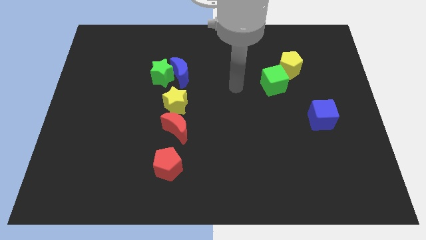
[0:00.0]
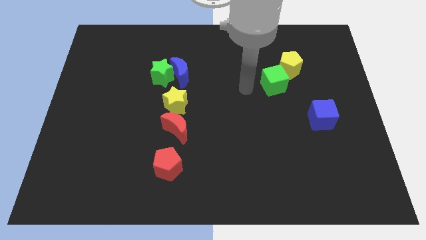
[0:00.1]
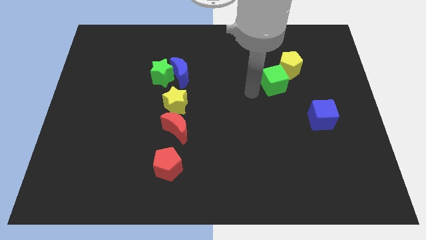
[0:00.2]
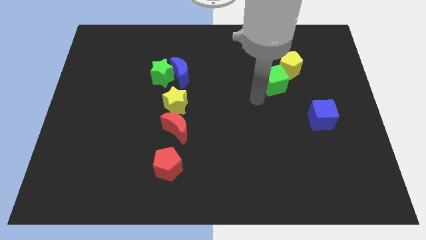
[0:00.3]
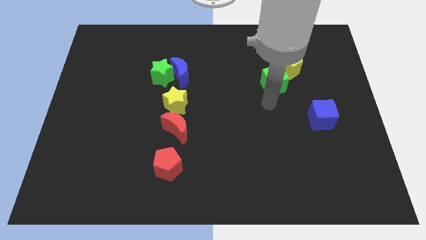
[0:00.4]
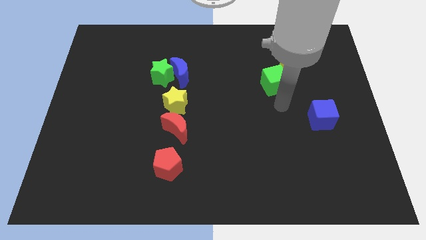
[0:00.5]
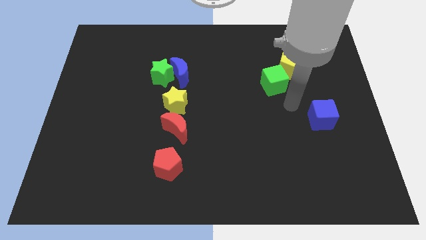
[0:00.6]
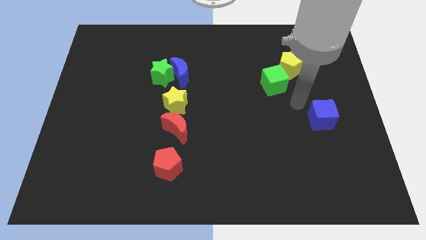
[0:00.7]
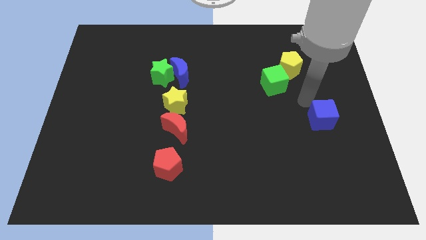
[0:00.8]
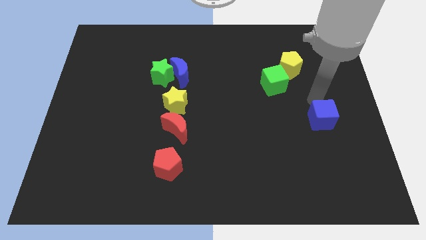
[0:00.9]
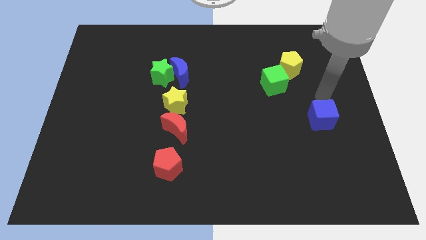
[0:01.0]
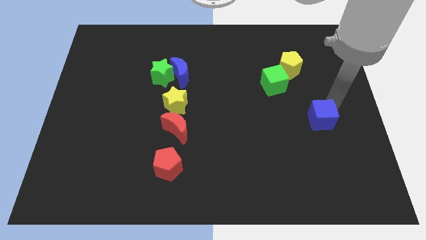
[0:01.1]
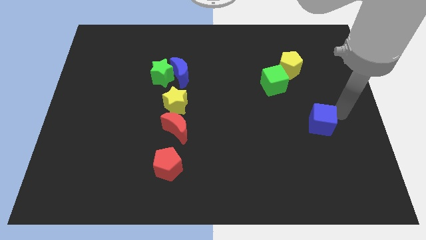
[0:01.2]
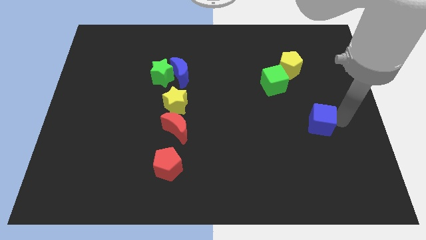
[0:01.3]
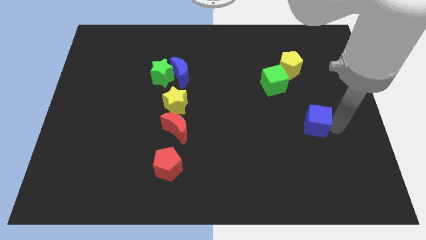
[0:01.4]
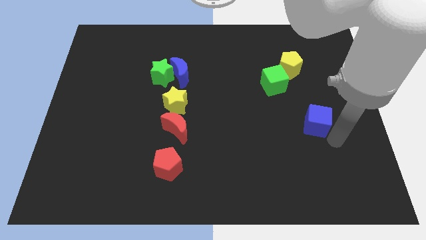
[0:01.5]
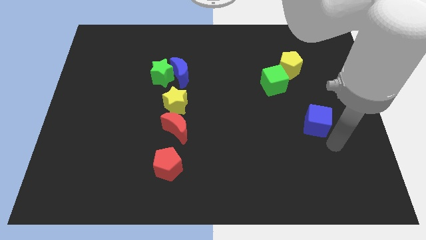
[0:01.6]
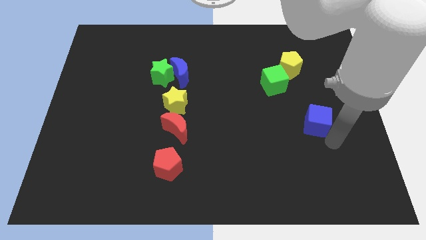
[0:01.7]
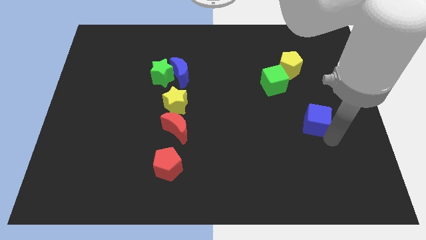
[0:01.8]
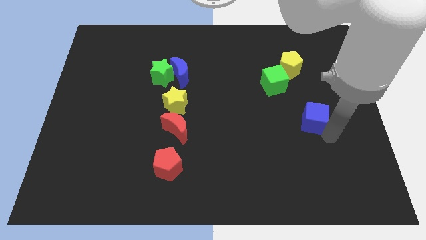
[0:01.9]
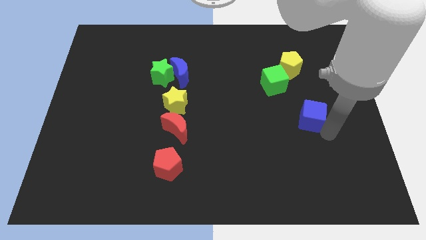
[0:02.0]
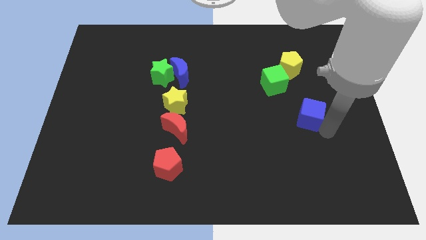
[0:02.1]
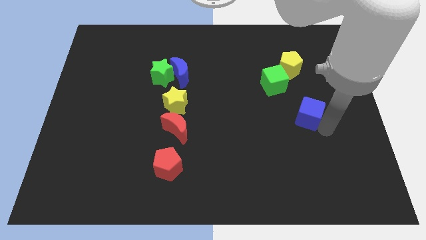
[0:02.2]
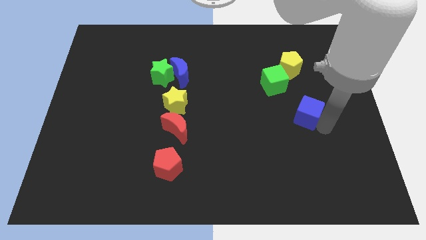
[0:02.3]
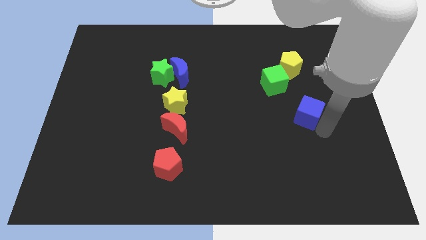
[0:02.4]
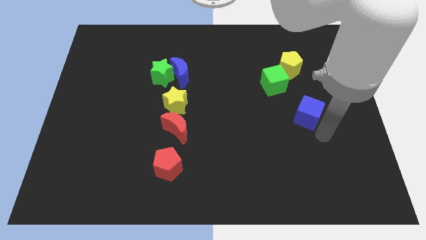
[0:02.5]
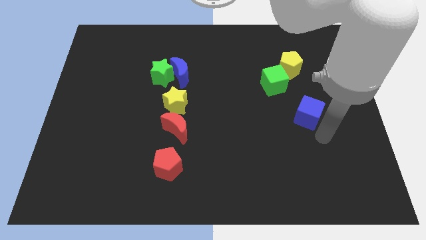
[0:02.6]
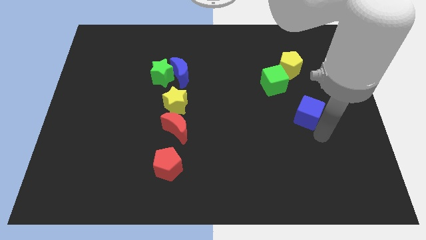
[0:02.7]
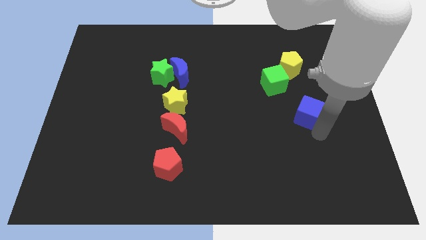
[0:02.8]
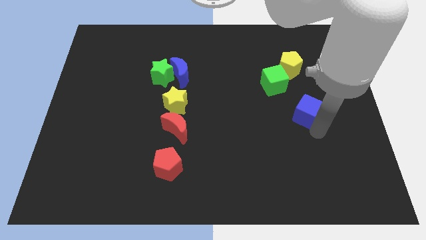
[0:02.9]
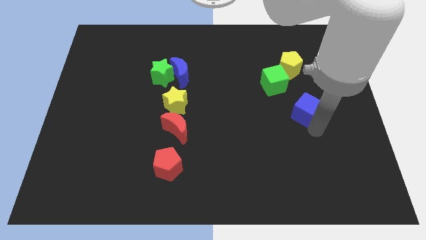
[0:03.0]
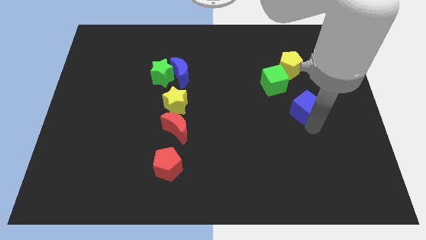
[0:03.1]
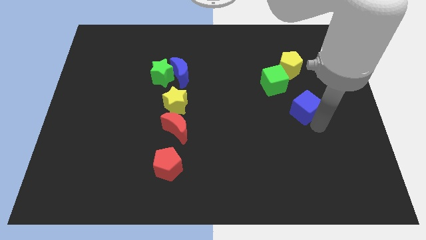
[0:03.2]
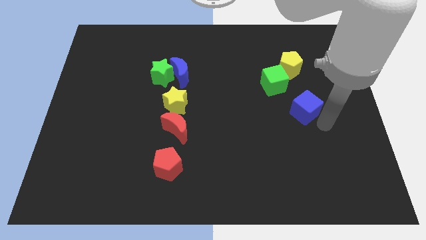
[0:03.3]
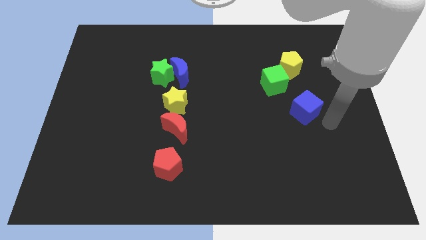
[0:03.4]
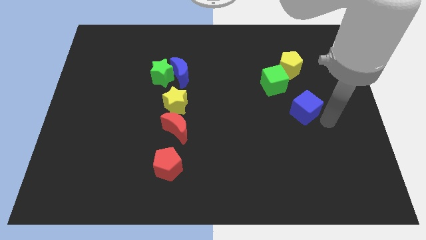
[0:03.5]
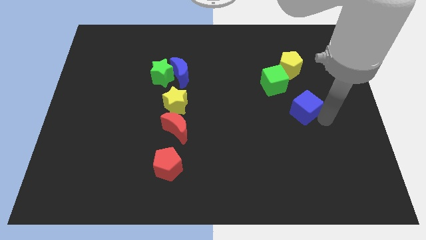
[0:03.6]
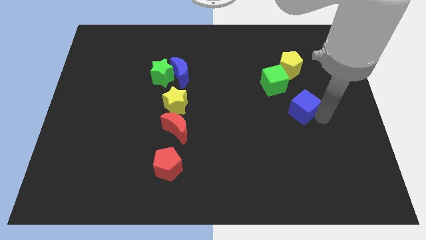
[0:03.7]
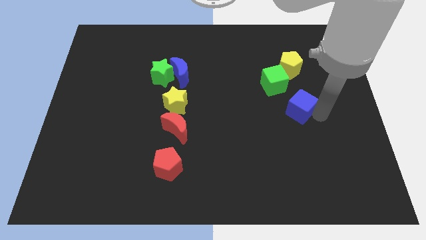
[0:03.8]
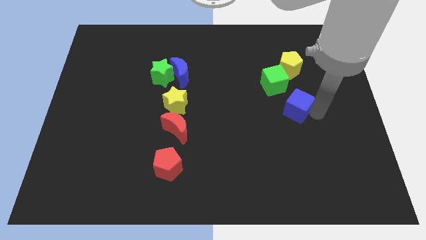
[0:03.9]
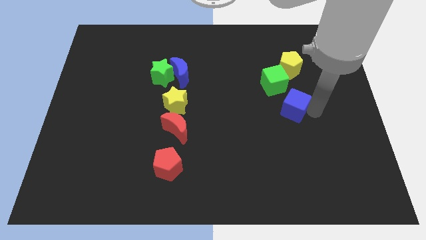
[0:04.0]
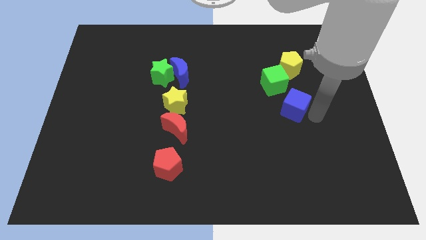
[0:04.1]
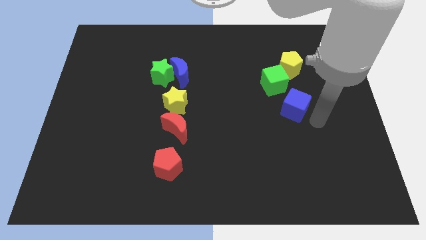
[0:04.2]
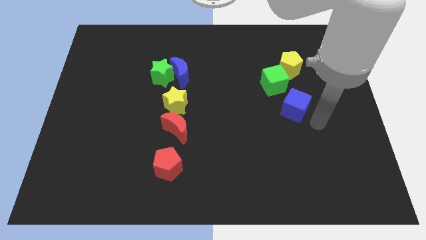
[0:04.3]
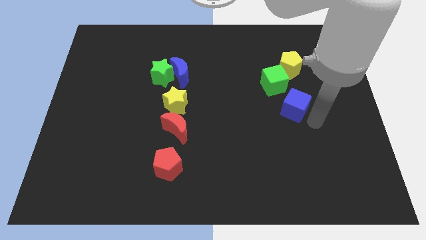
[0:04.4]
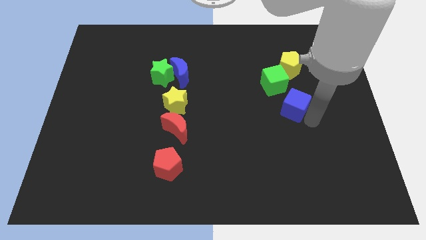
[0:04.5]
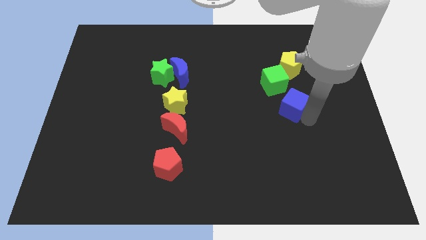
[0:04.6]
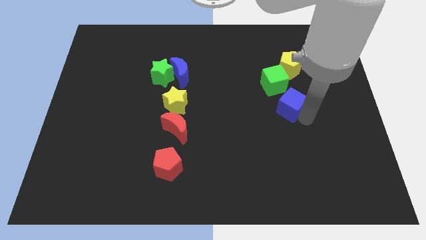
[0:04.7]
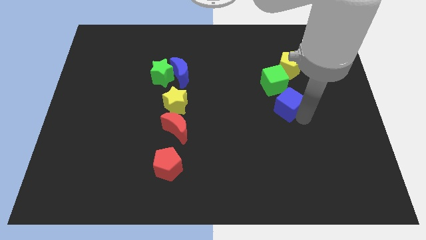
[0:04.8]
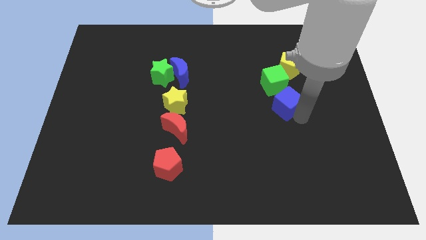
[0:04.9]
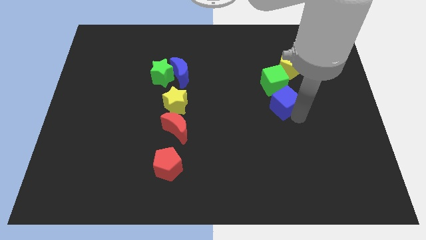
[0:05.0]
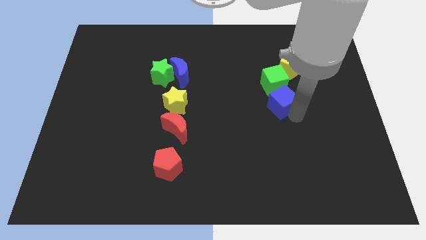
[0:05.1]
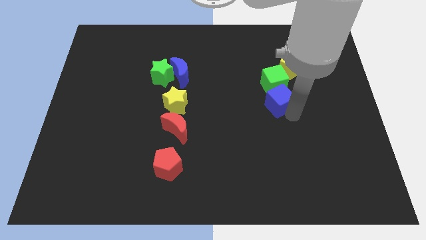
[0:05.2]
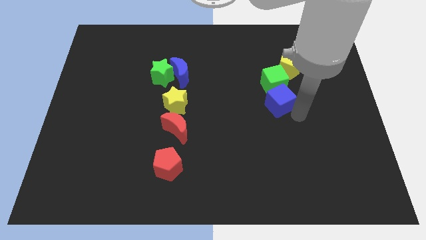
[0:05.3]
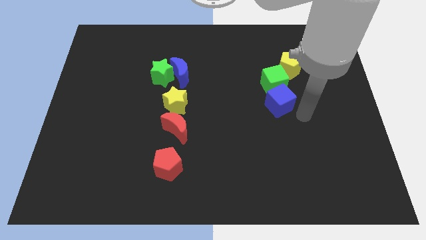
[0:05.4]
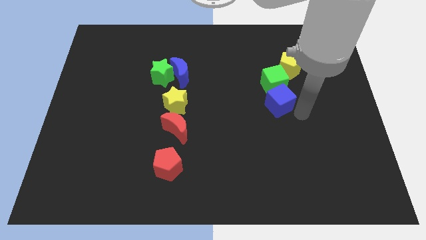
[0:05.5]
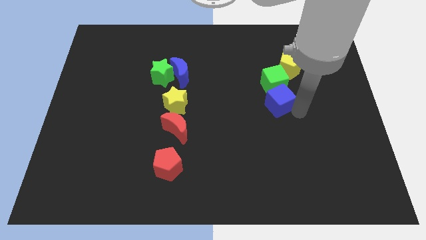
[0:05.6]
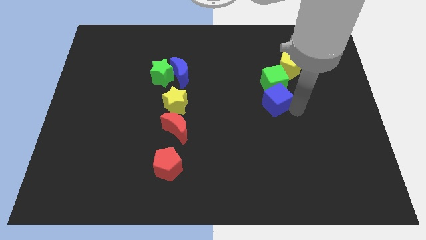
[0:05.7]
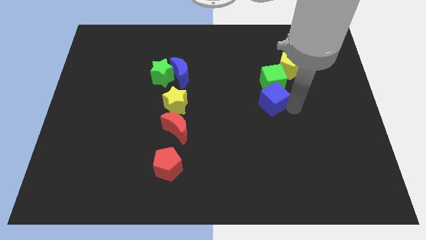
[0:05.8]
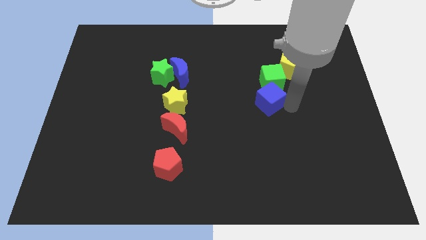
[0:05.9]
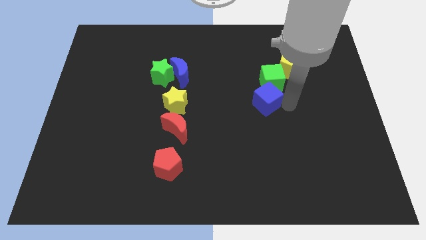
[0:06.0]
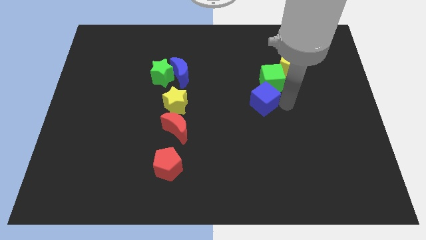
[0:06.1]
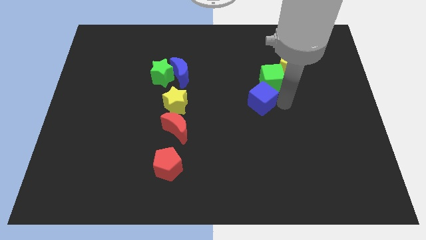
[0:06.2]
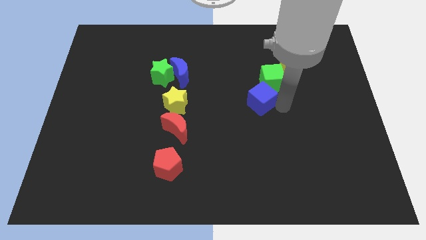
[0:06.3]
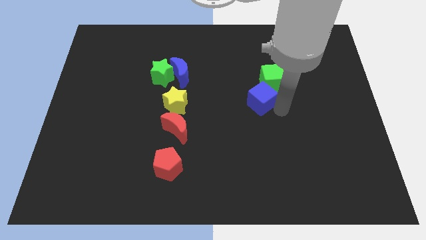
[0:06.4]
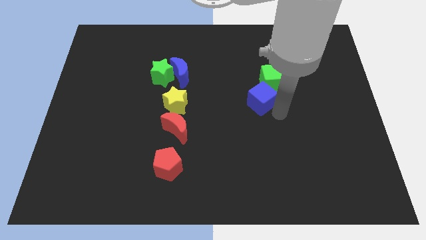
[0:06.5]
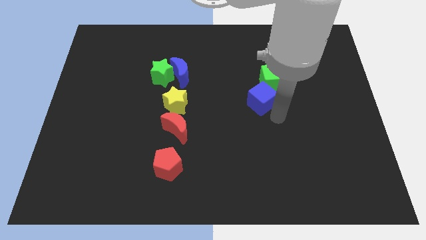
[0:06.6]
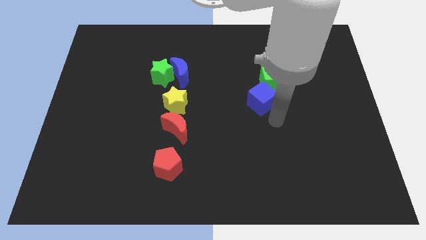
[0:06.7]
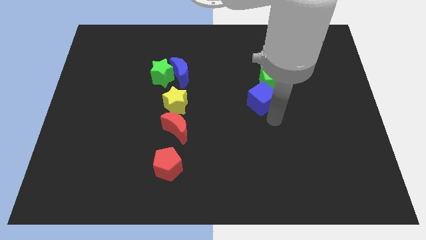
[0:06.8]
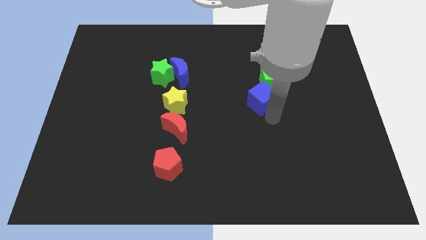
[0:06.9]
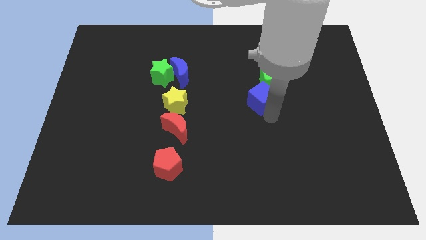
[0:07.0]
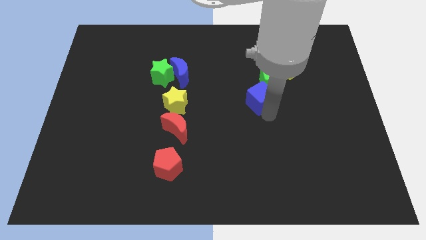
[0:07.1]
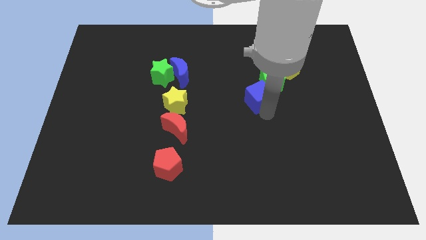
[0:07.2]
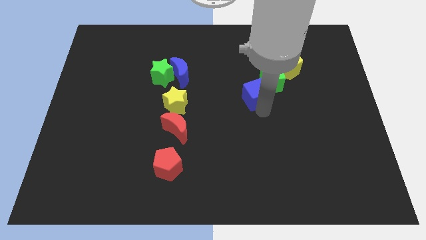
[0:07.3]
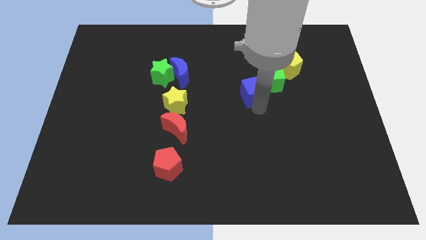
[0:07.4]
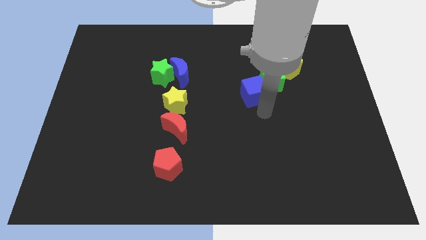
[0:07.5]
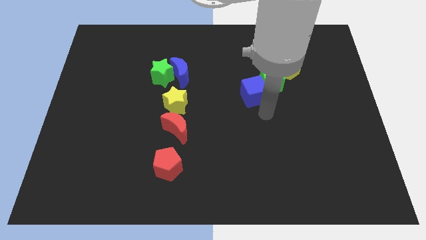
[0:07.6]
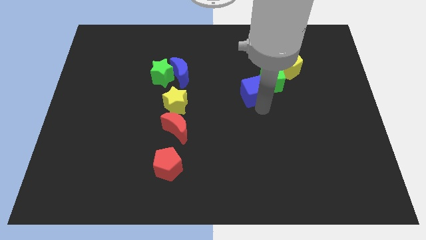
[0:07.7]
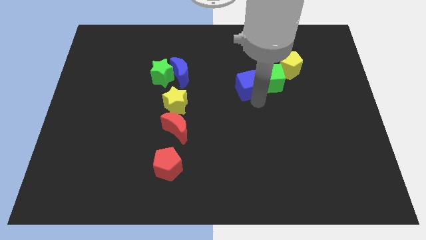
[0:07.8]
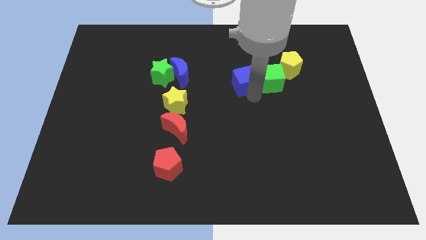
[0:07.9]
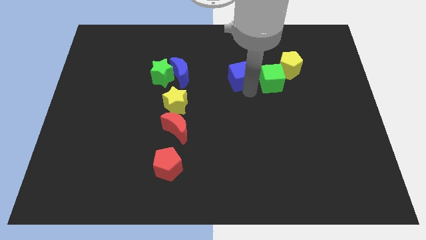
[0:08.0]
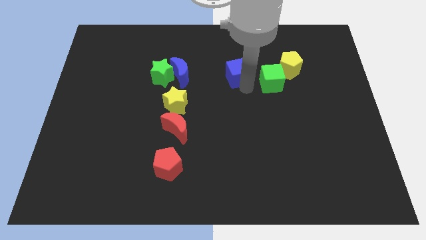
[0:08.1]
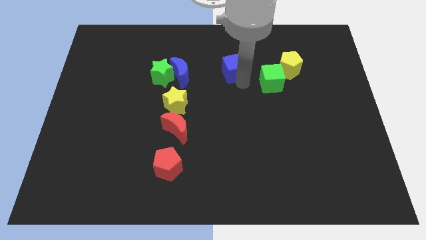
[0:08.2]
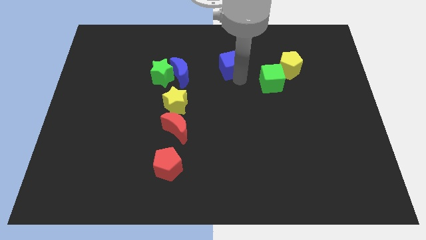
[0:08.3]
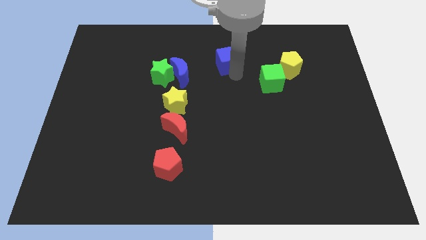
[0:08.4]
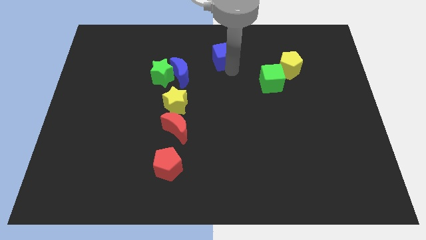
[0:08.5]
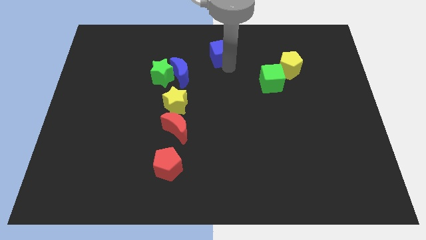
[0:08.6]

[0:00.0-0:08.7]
slide the blue cube to the top side
